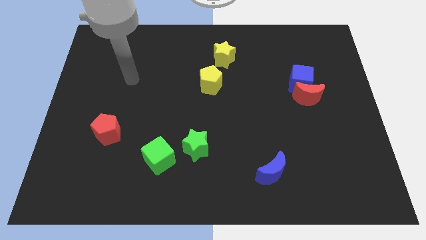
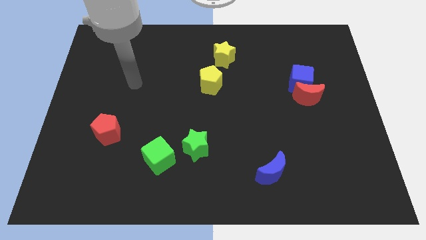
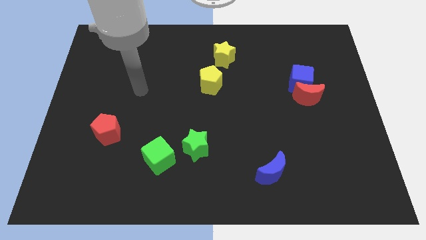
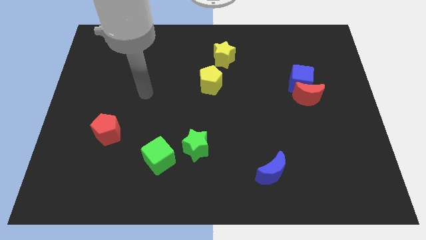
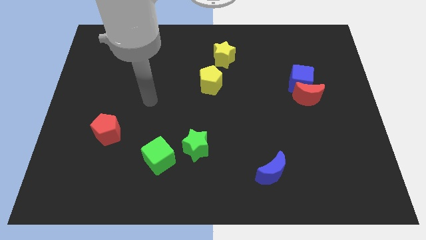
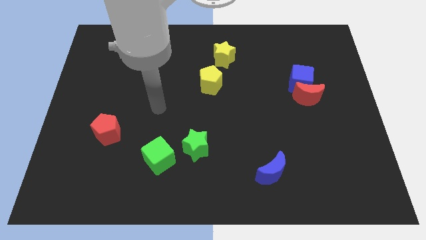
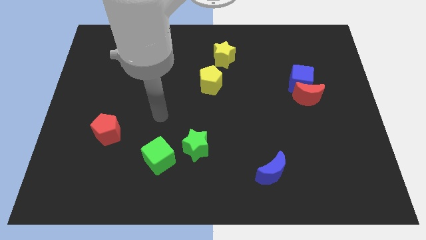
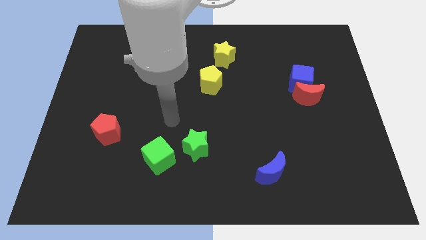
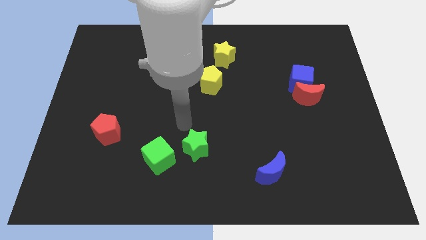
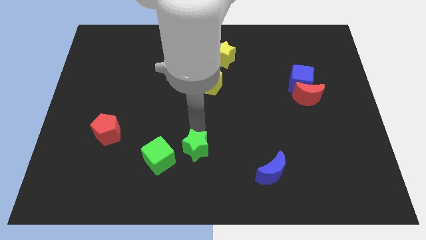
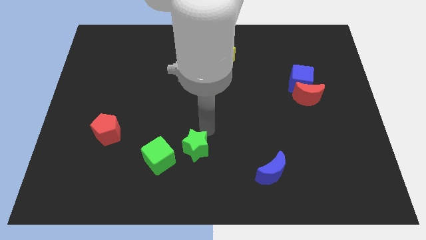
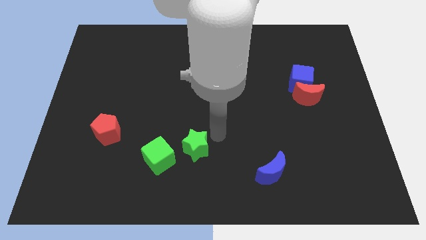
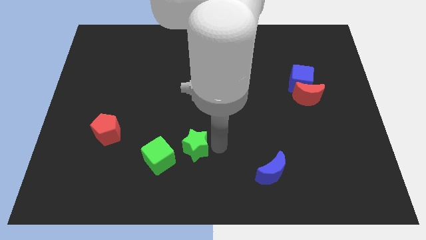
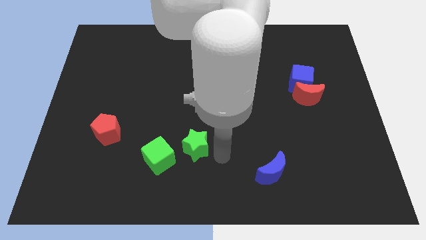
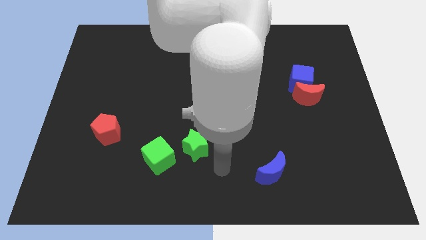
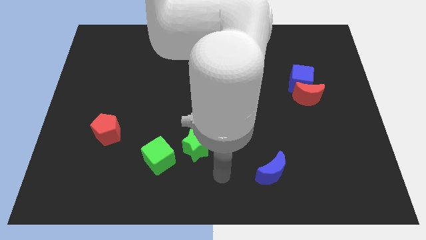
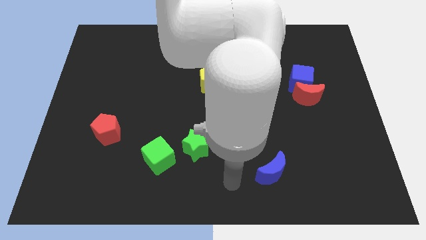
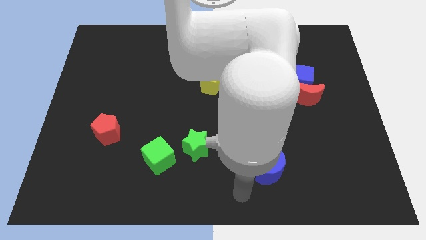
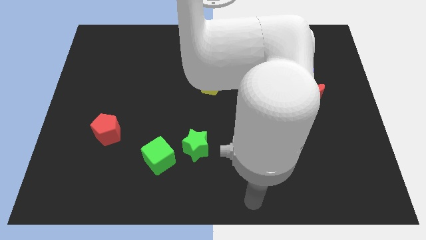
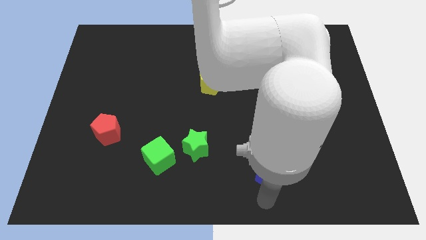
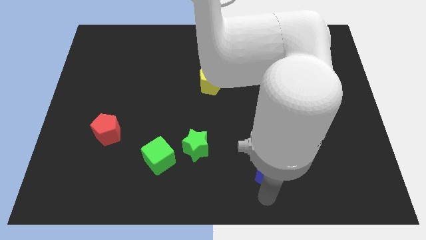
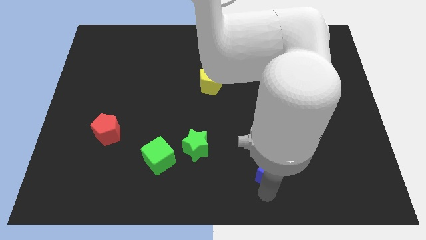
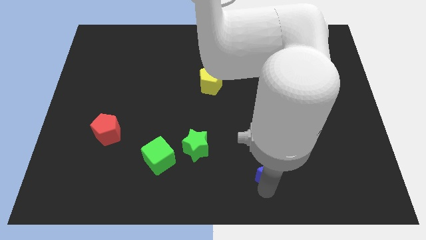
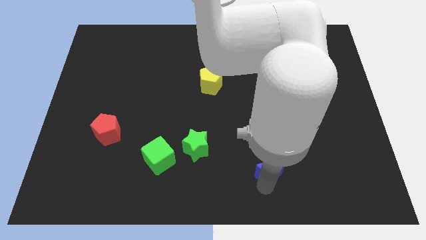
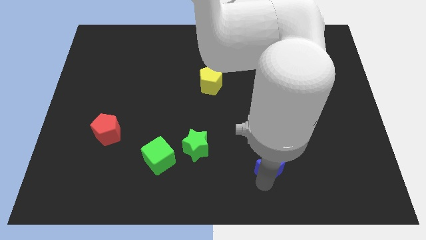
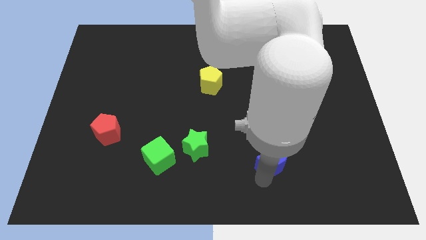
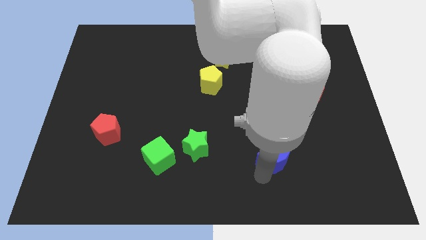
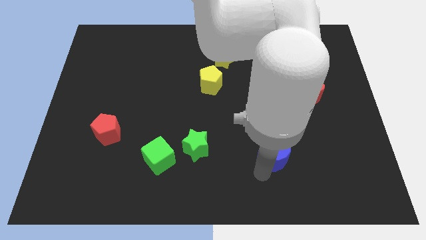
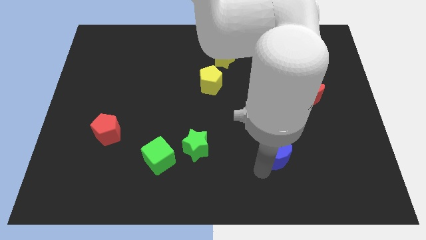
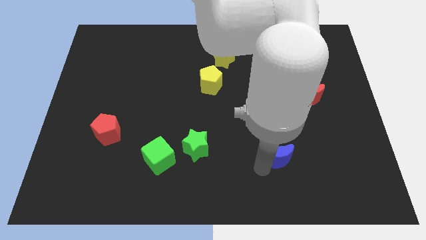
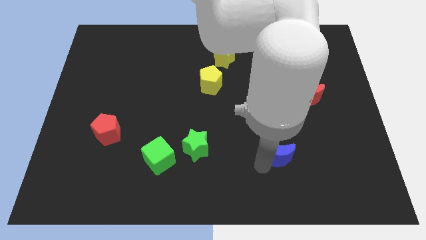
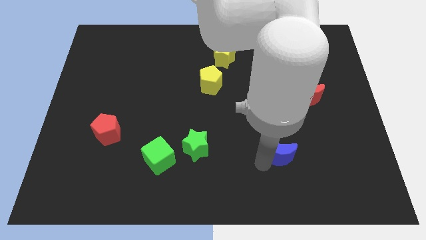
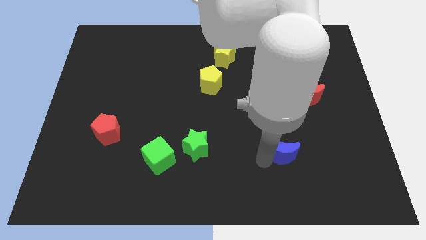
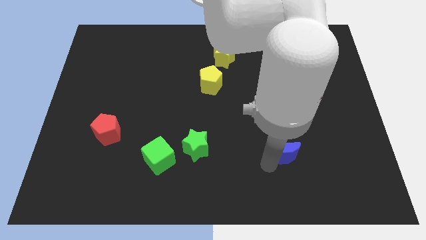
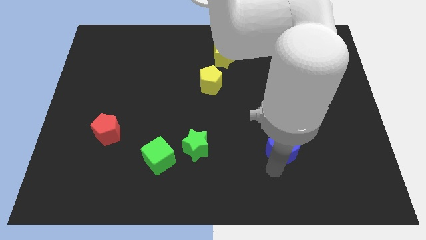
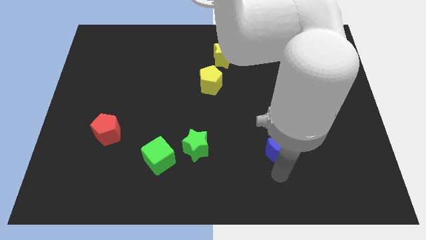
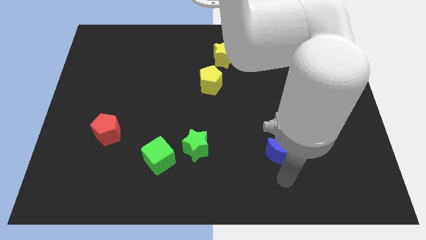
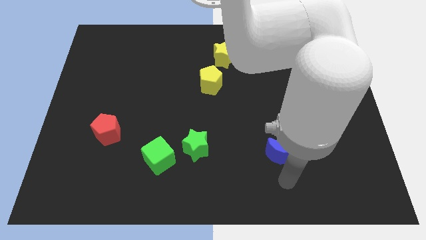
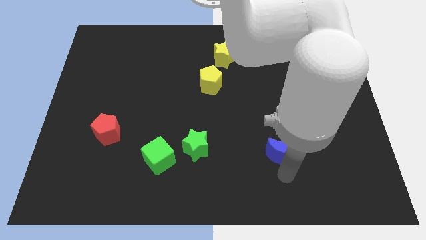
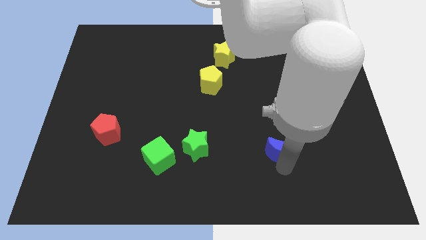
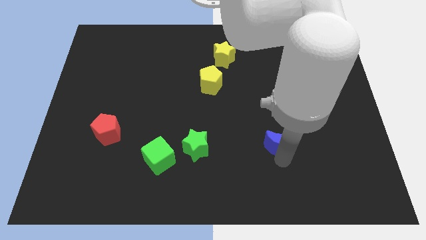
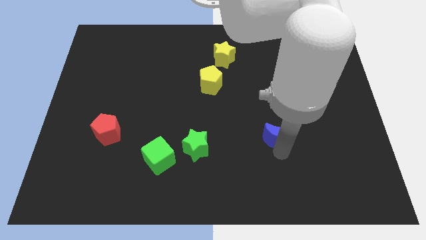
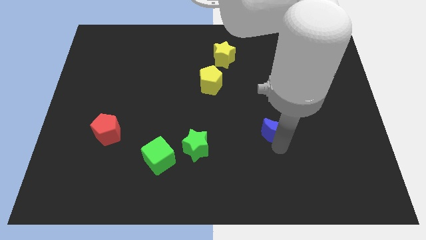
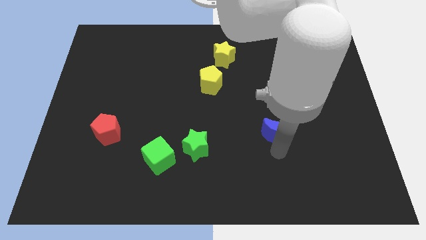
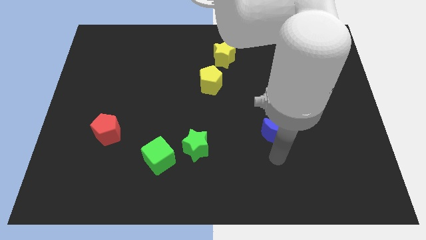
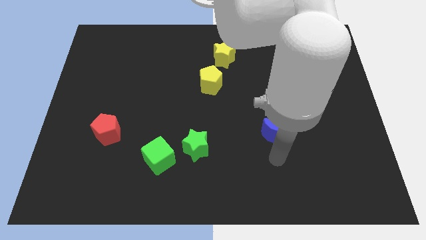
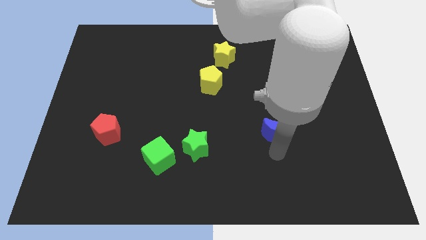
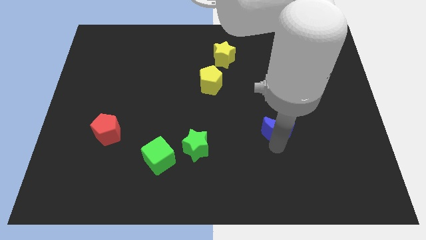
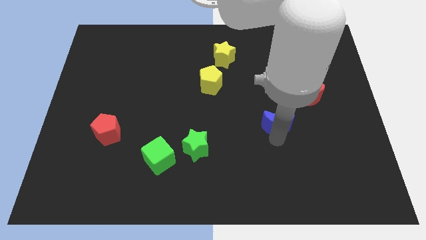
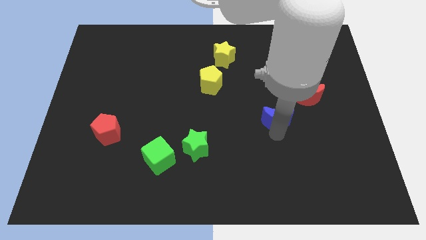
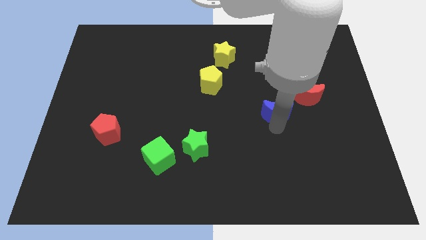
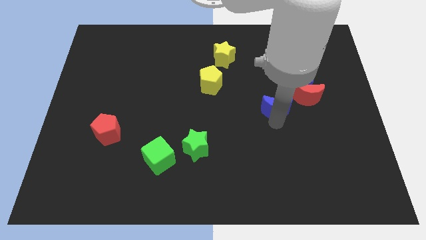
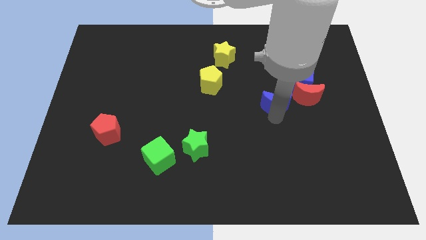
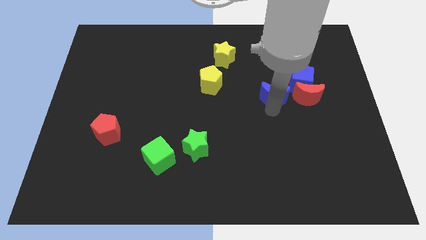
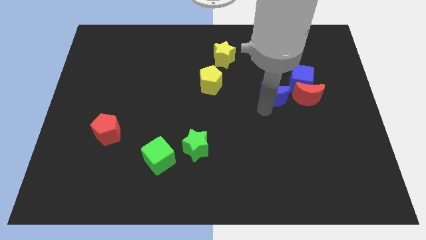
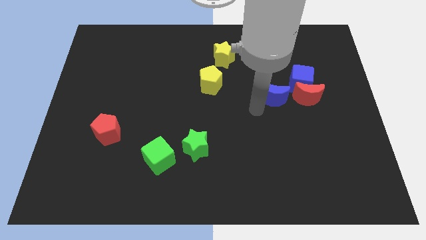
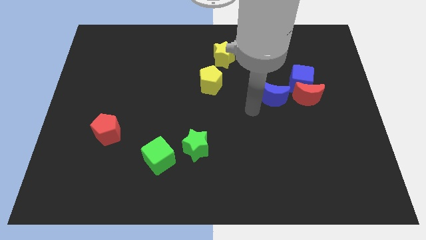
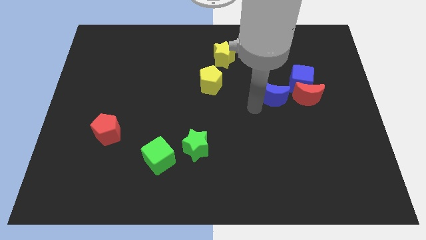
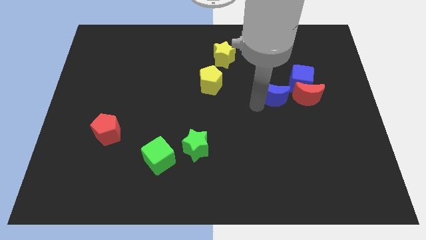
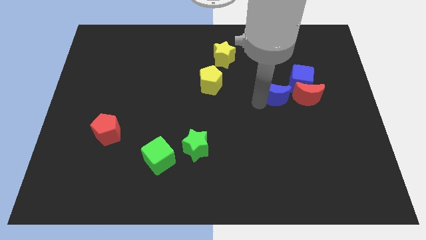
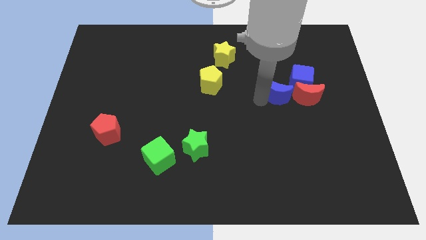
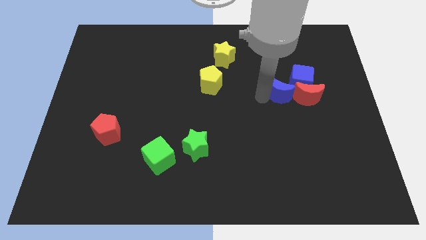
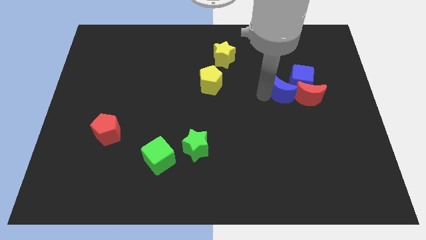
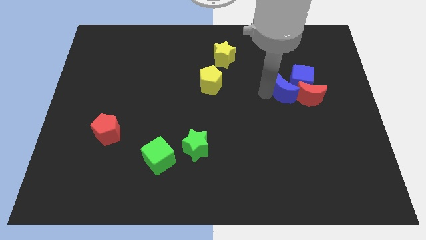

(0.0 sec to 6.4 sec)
push the blue moon to the blue cube

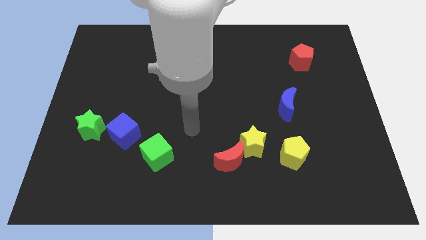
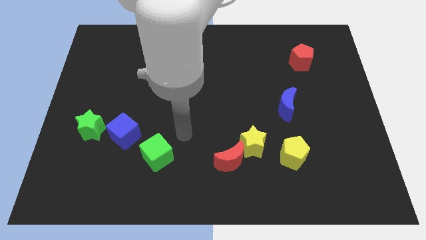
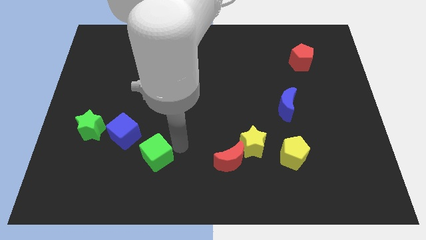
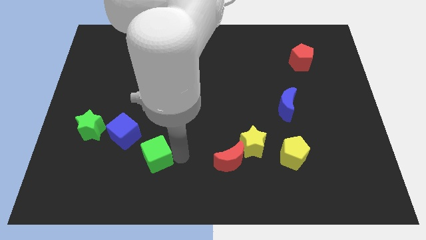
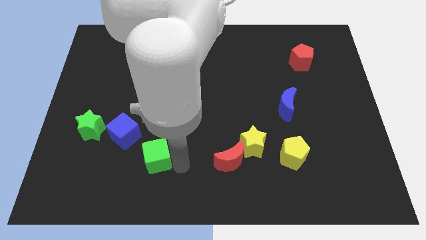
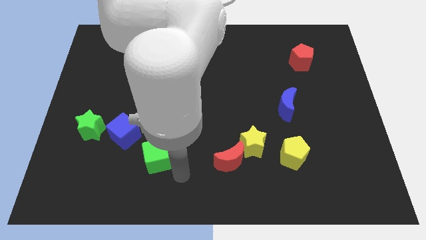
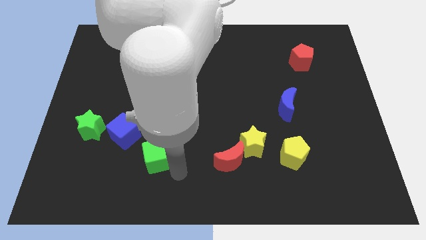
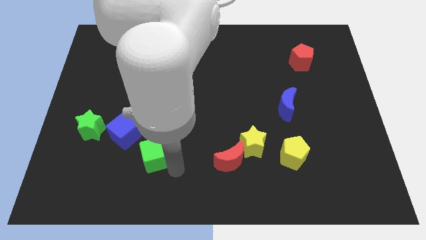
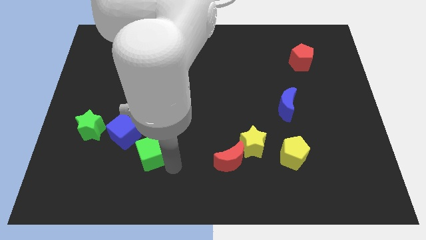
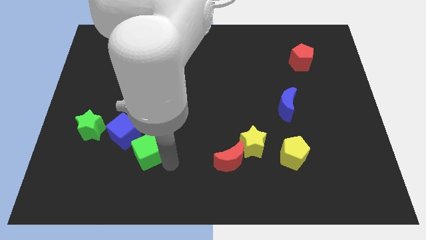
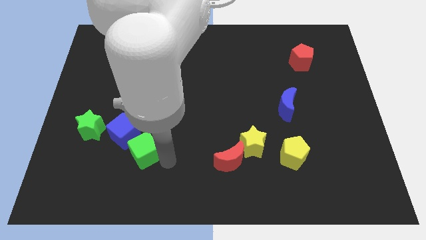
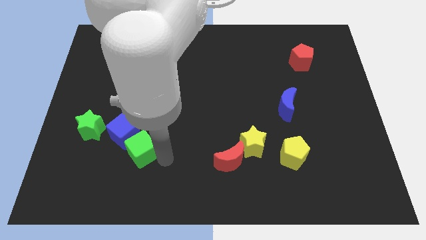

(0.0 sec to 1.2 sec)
put the green cube towards the blue cube
